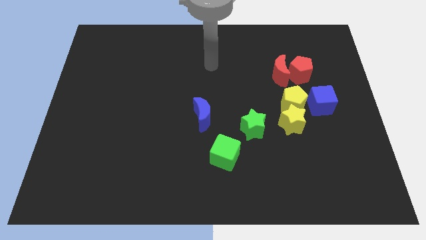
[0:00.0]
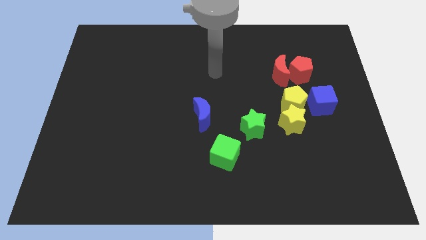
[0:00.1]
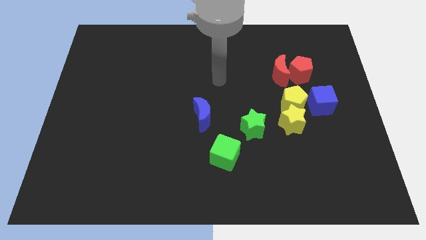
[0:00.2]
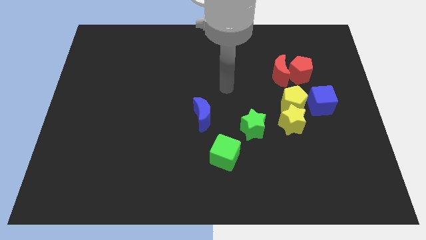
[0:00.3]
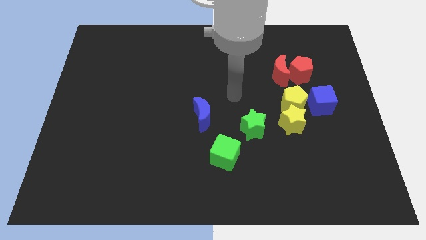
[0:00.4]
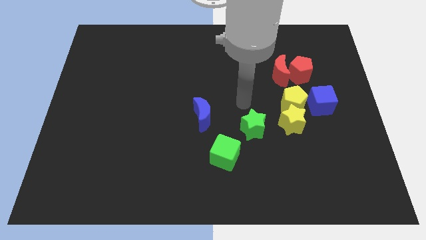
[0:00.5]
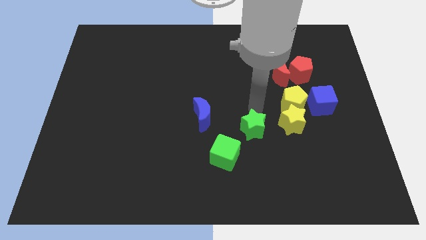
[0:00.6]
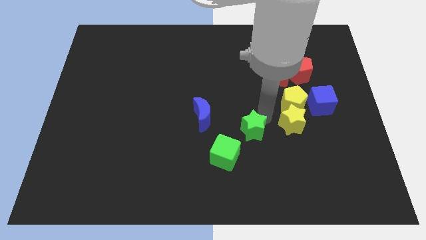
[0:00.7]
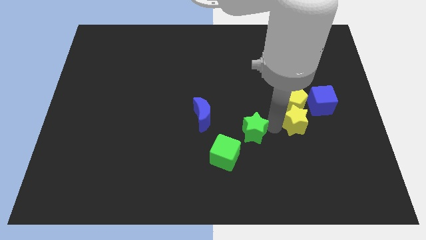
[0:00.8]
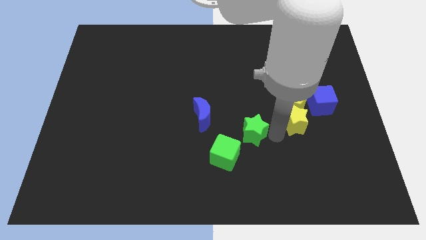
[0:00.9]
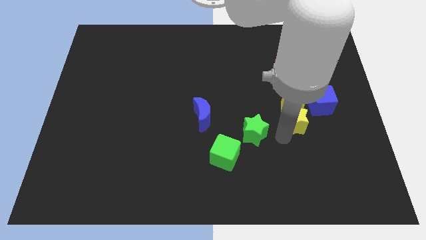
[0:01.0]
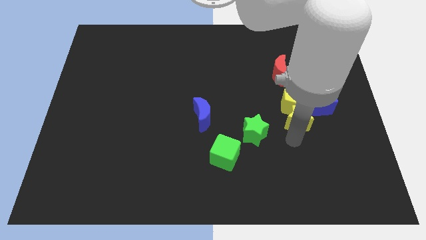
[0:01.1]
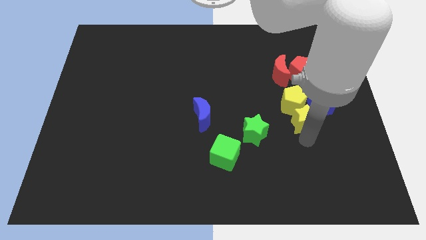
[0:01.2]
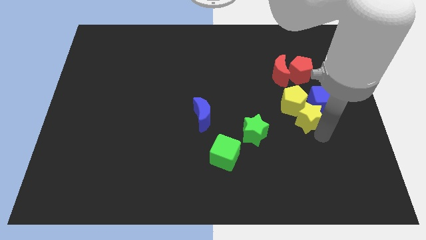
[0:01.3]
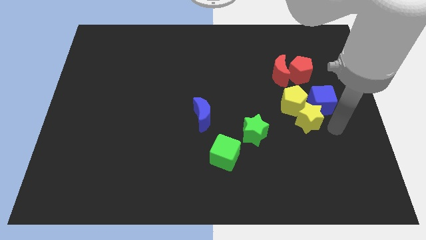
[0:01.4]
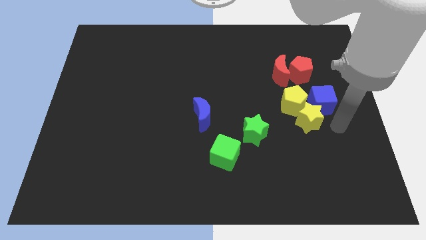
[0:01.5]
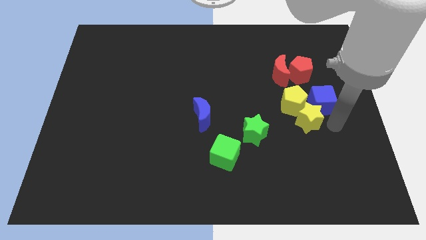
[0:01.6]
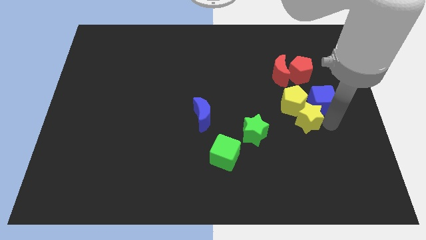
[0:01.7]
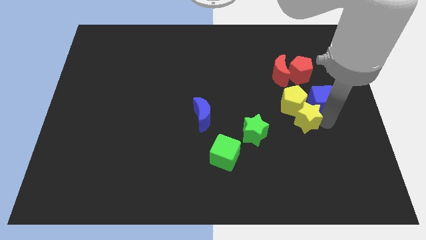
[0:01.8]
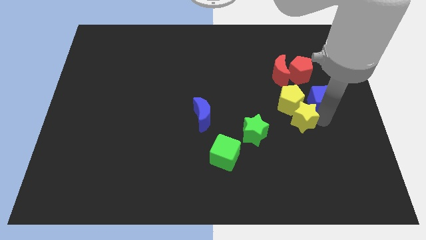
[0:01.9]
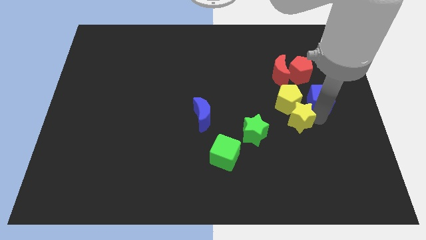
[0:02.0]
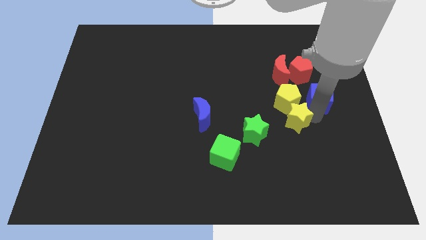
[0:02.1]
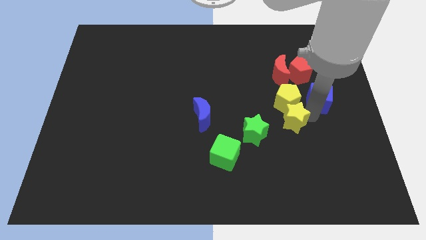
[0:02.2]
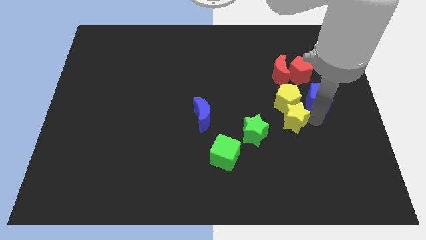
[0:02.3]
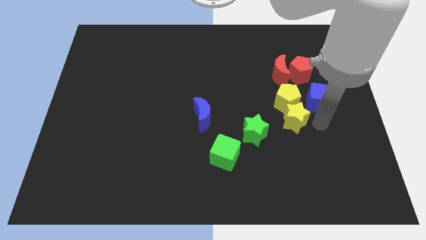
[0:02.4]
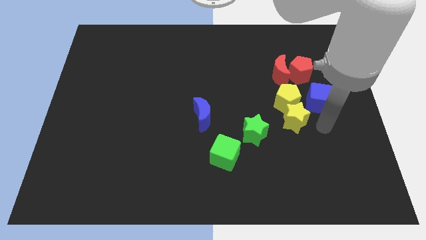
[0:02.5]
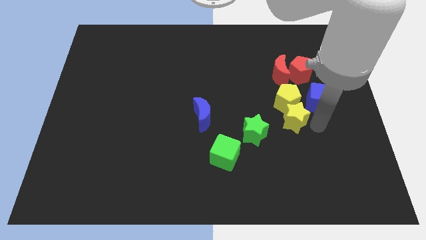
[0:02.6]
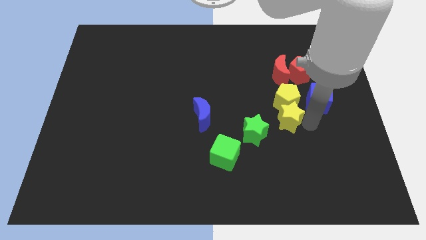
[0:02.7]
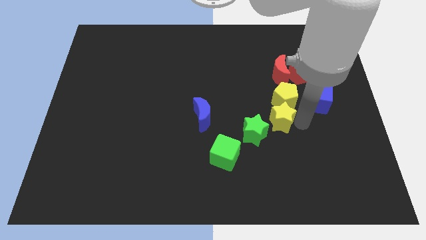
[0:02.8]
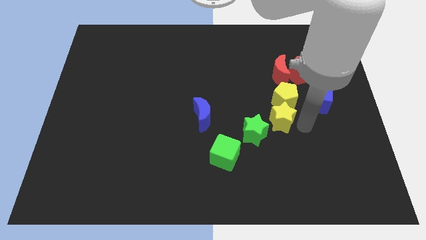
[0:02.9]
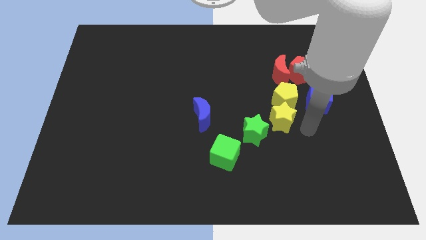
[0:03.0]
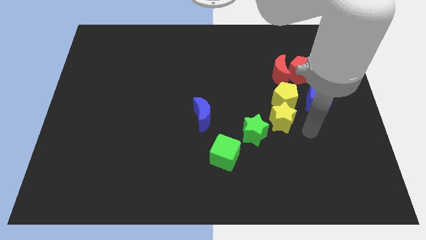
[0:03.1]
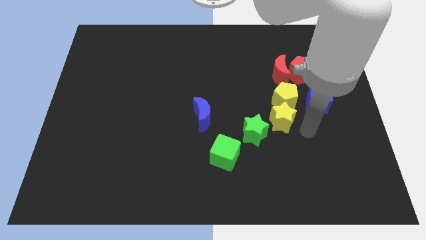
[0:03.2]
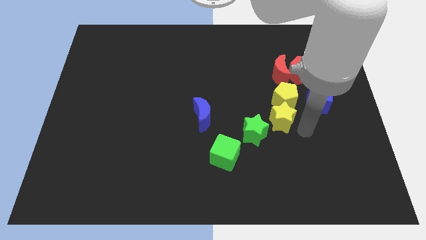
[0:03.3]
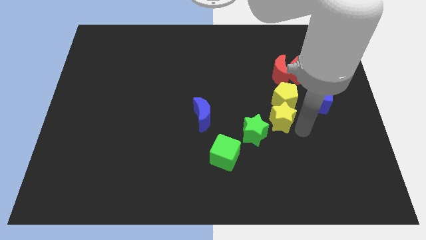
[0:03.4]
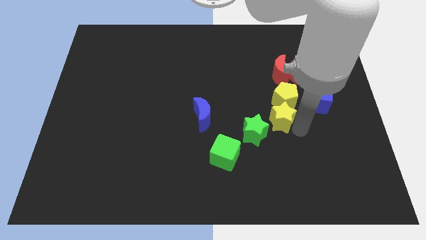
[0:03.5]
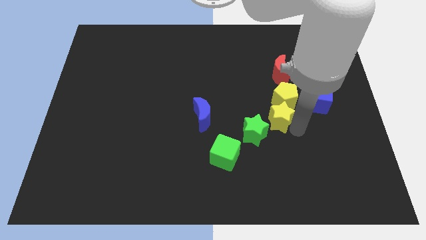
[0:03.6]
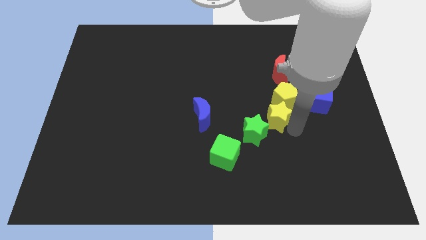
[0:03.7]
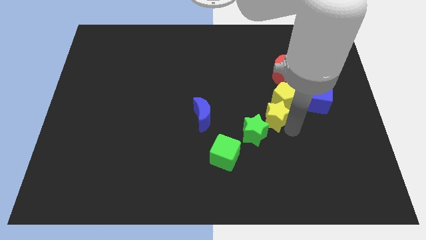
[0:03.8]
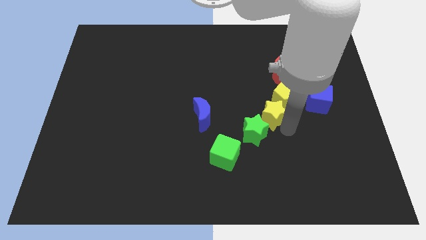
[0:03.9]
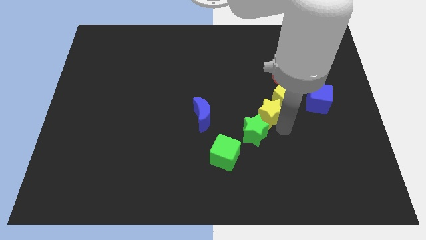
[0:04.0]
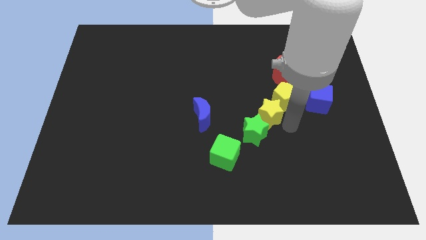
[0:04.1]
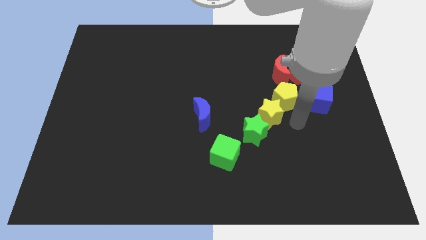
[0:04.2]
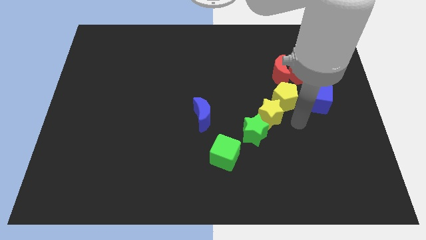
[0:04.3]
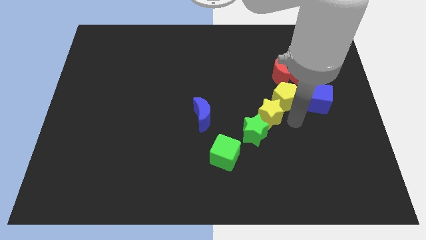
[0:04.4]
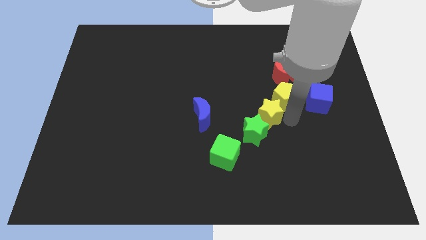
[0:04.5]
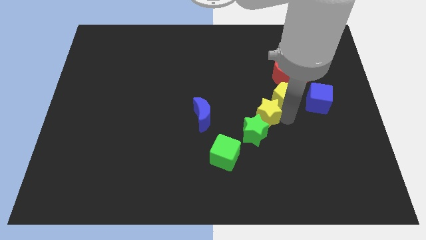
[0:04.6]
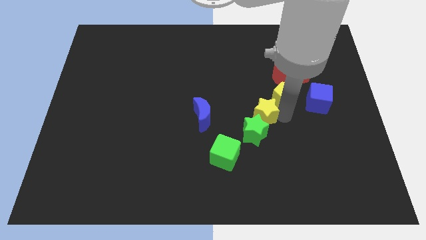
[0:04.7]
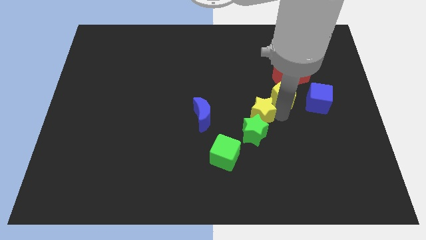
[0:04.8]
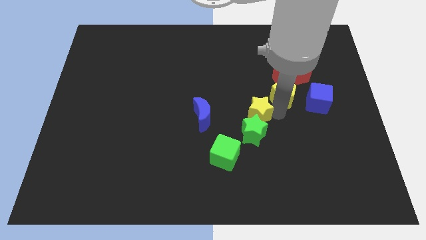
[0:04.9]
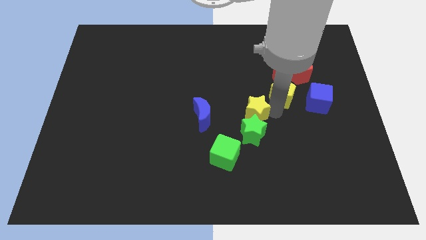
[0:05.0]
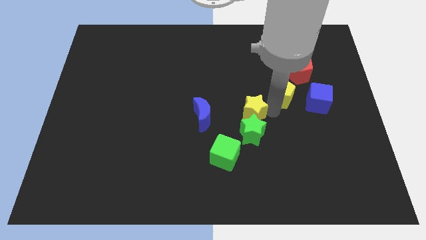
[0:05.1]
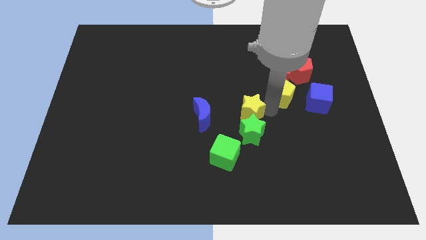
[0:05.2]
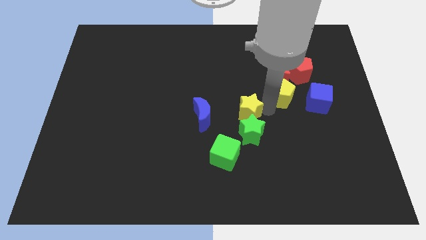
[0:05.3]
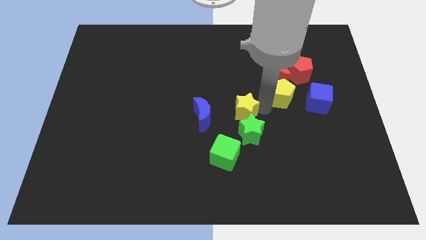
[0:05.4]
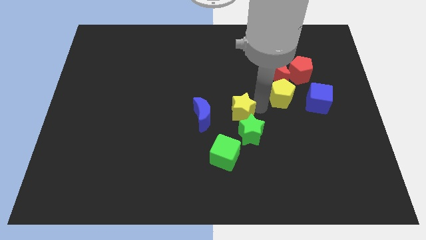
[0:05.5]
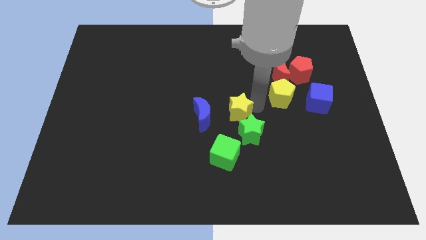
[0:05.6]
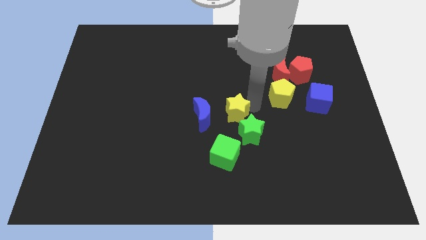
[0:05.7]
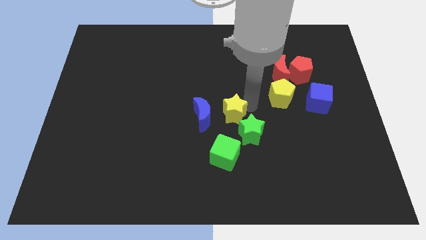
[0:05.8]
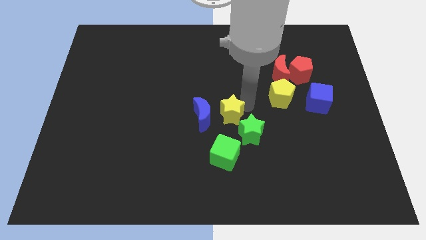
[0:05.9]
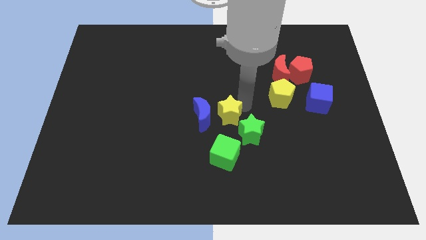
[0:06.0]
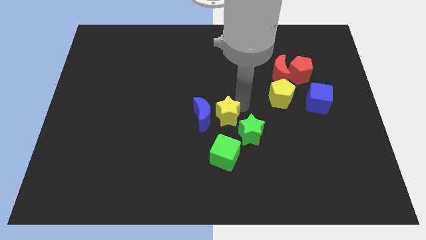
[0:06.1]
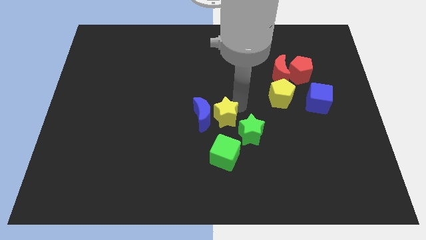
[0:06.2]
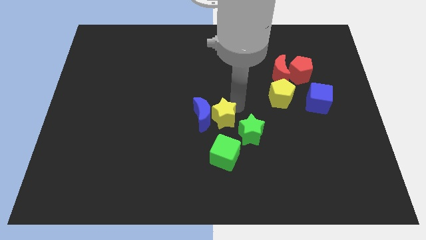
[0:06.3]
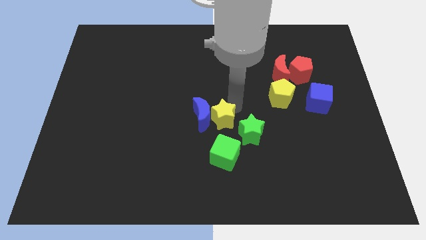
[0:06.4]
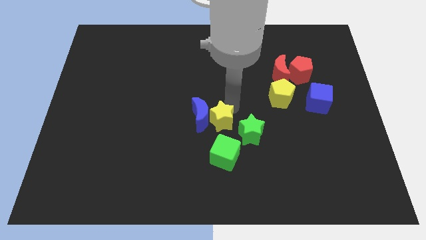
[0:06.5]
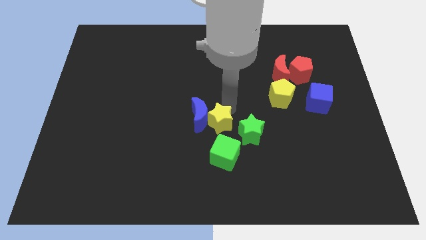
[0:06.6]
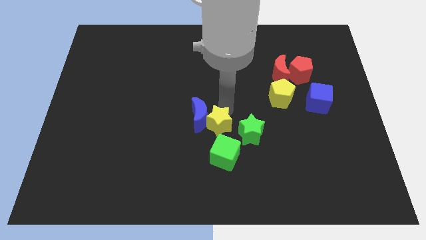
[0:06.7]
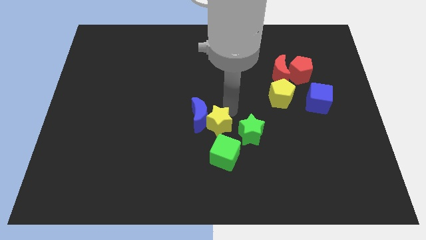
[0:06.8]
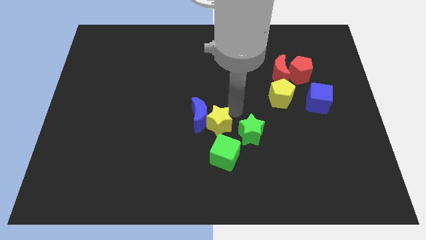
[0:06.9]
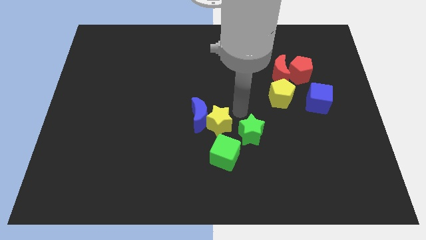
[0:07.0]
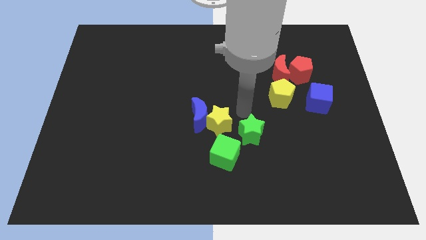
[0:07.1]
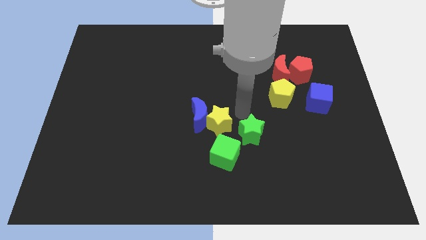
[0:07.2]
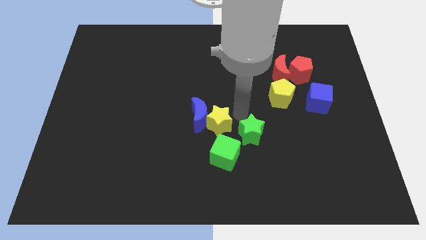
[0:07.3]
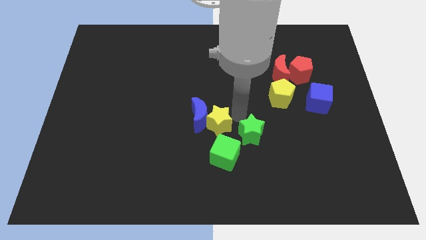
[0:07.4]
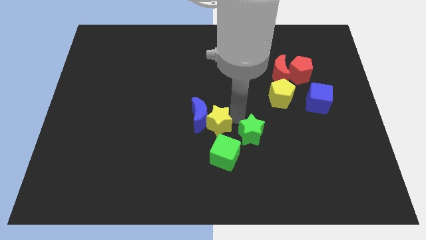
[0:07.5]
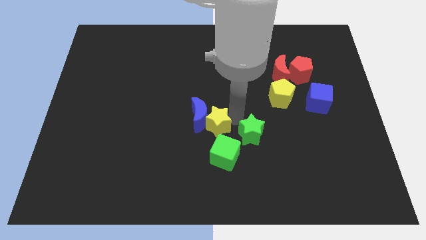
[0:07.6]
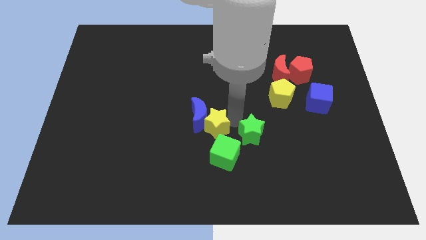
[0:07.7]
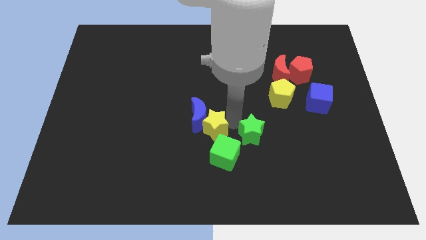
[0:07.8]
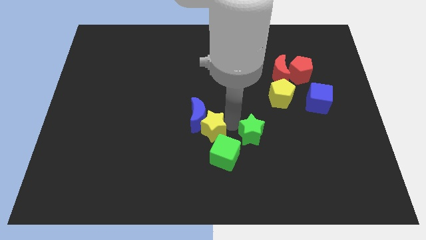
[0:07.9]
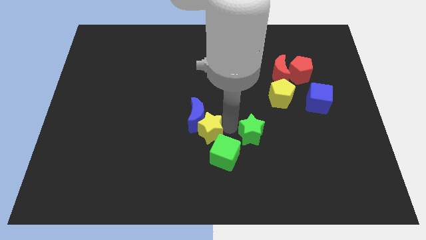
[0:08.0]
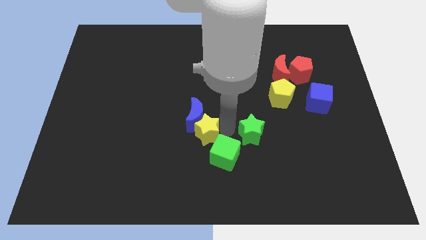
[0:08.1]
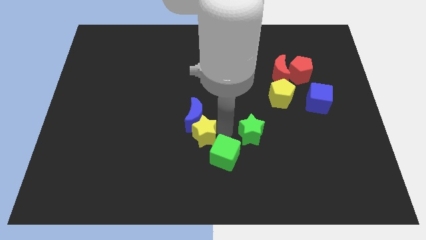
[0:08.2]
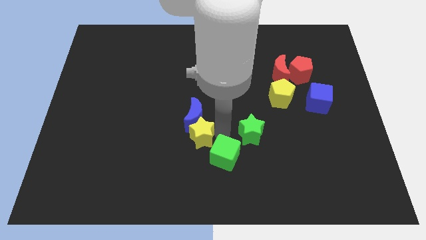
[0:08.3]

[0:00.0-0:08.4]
slide the yellow star to the left
